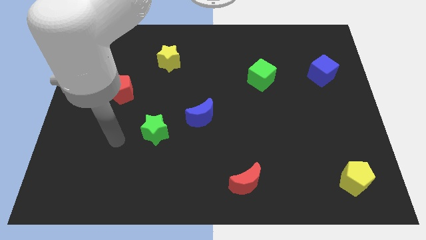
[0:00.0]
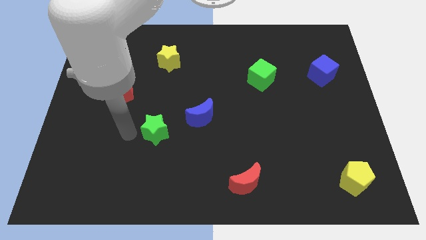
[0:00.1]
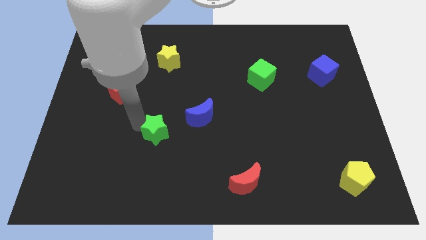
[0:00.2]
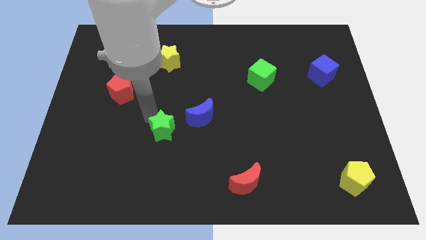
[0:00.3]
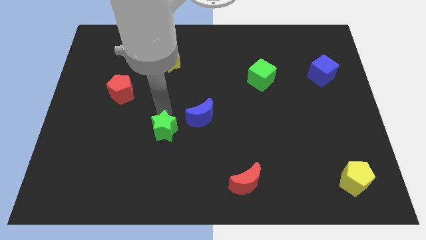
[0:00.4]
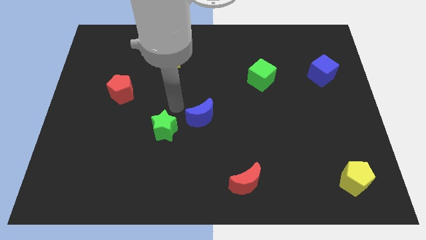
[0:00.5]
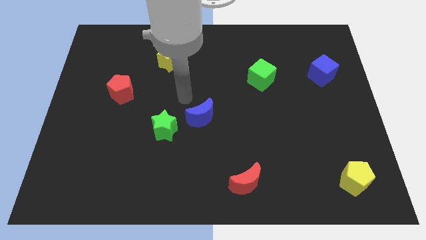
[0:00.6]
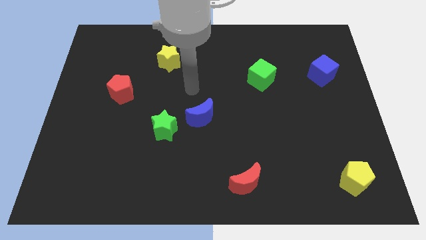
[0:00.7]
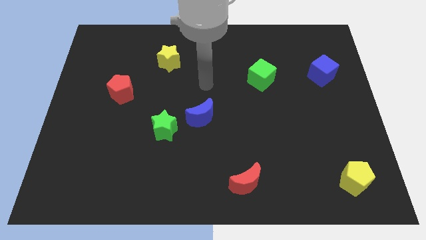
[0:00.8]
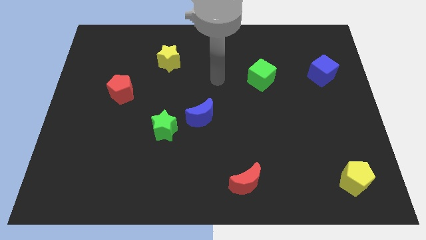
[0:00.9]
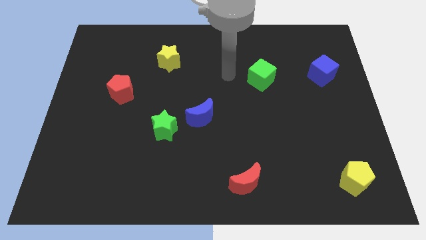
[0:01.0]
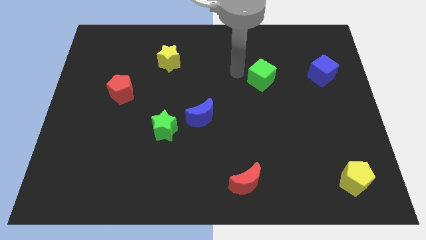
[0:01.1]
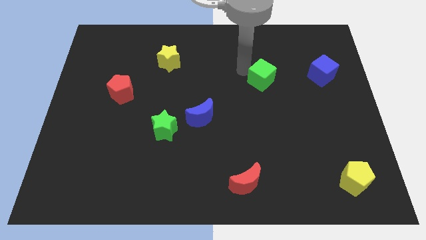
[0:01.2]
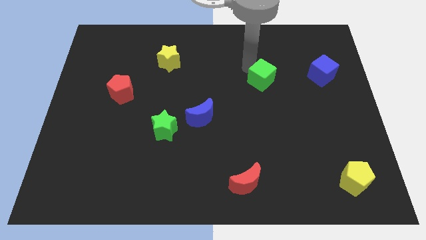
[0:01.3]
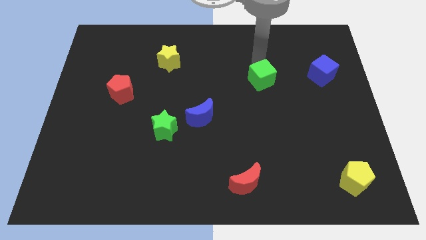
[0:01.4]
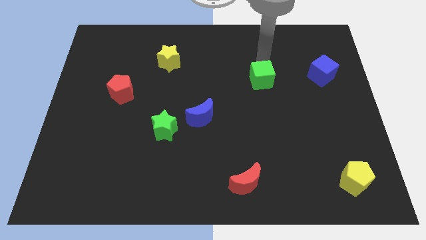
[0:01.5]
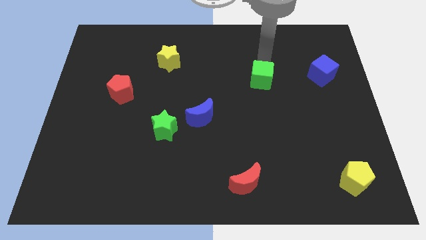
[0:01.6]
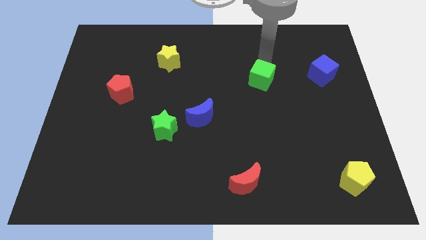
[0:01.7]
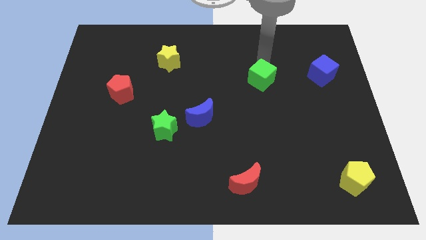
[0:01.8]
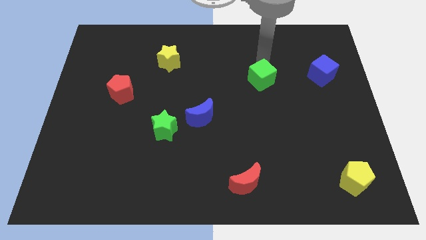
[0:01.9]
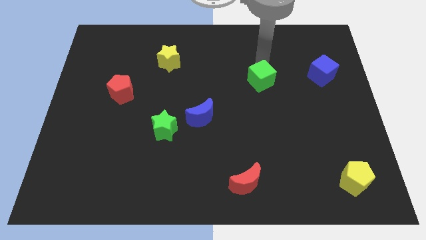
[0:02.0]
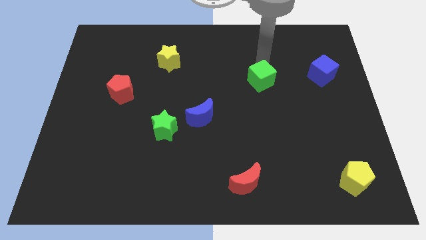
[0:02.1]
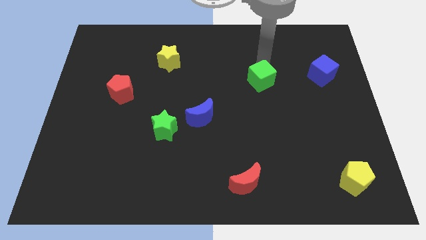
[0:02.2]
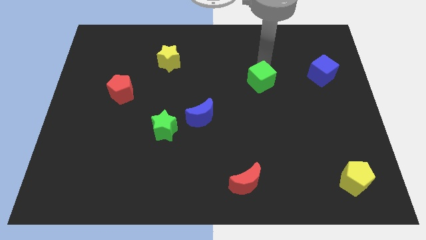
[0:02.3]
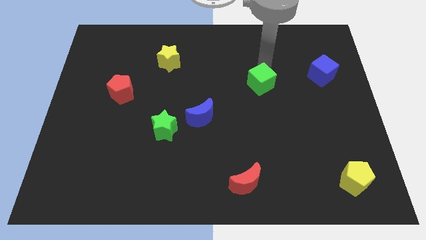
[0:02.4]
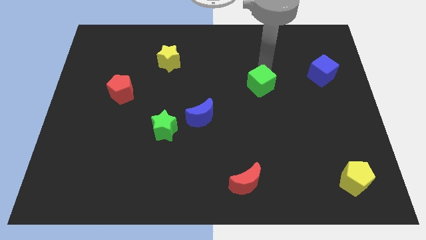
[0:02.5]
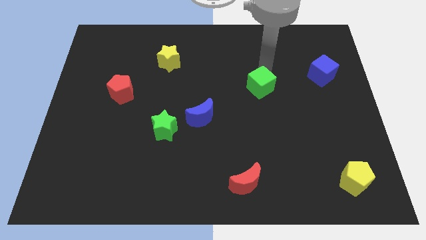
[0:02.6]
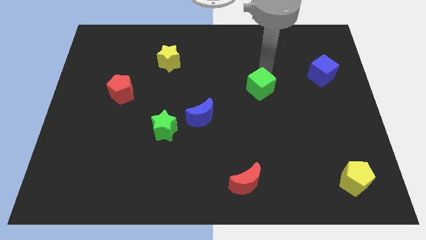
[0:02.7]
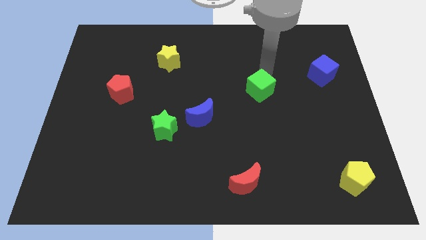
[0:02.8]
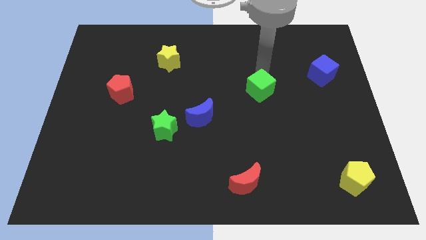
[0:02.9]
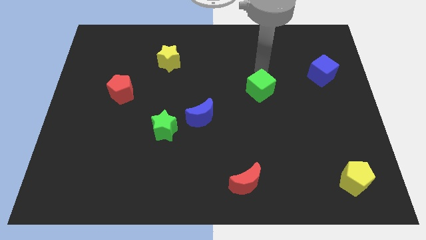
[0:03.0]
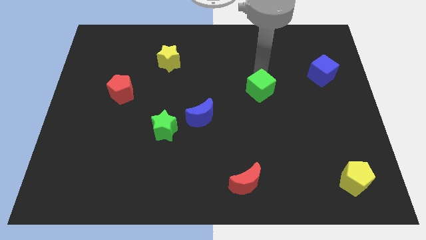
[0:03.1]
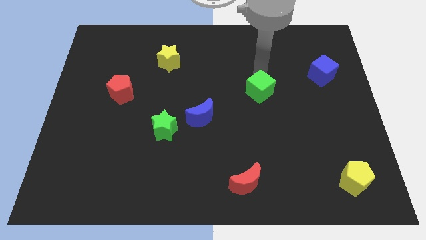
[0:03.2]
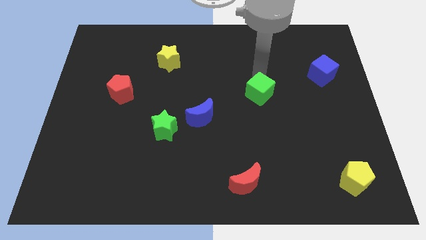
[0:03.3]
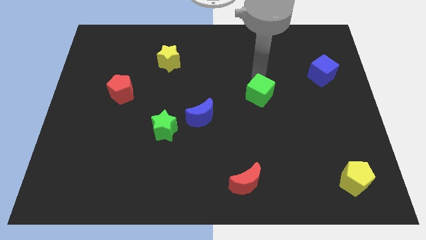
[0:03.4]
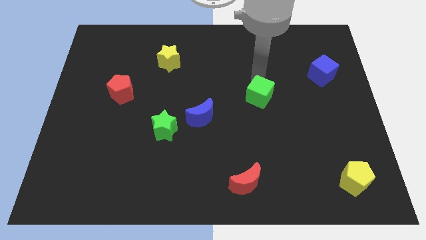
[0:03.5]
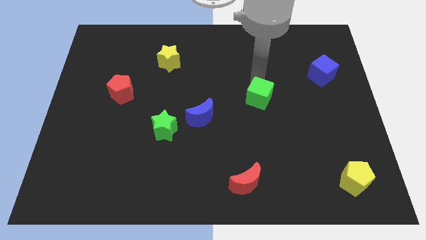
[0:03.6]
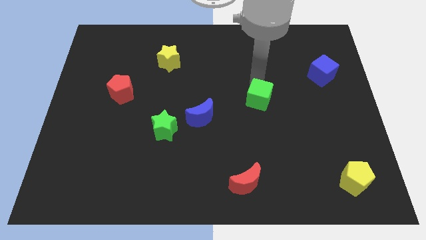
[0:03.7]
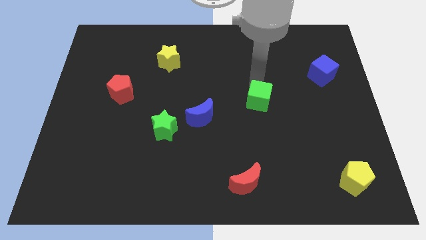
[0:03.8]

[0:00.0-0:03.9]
slightly slide the green cube down

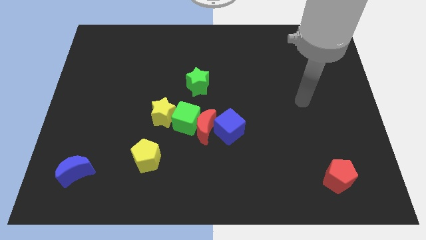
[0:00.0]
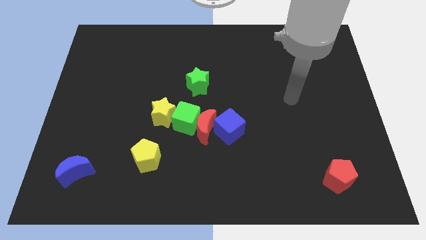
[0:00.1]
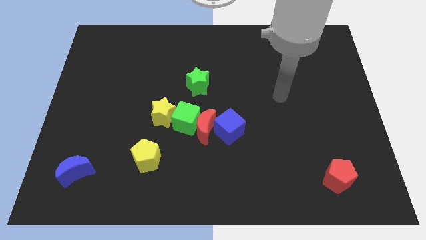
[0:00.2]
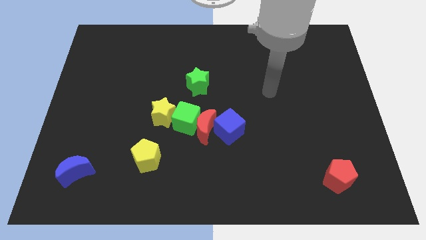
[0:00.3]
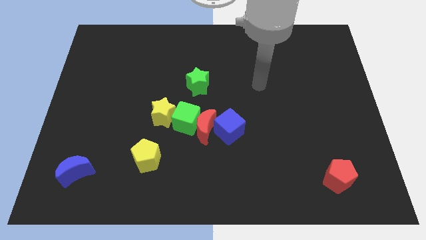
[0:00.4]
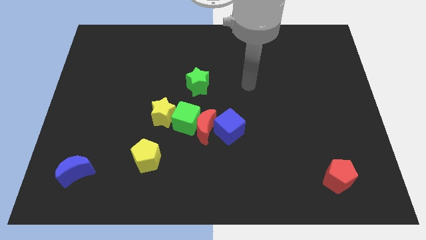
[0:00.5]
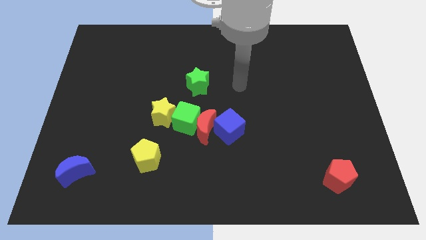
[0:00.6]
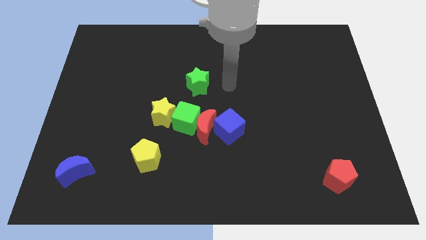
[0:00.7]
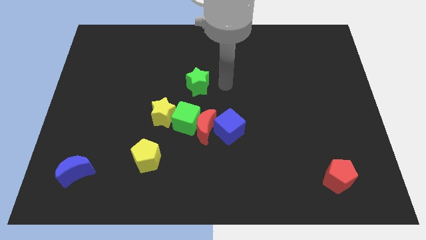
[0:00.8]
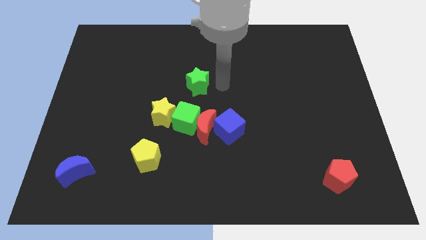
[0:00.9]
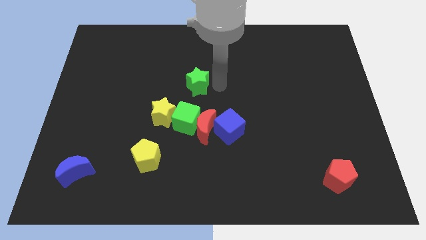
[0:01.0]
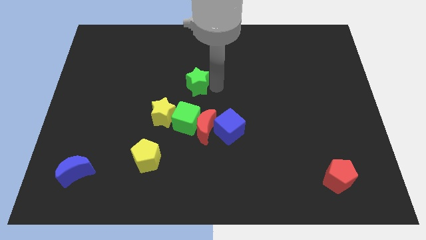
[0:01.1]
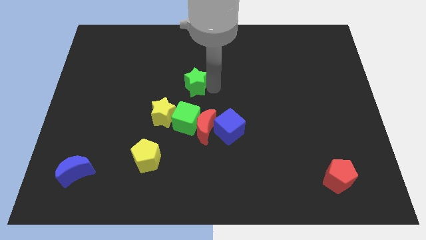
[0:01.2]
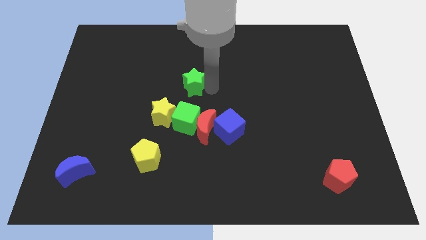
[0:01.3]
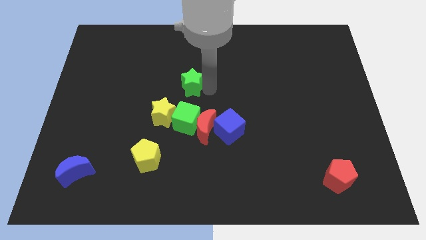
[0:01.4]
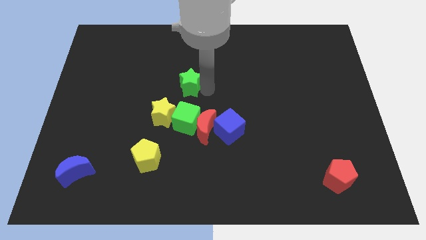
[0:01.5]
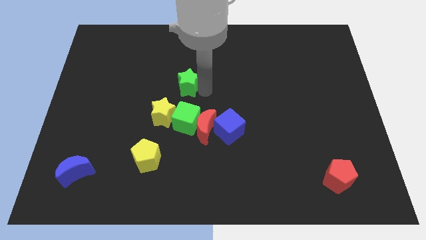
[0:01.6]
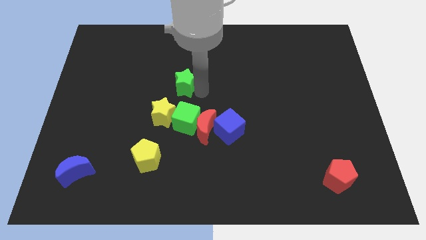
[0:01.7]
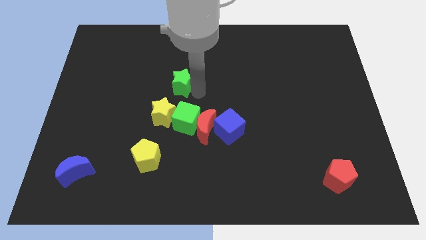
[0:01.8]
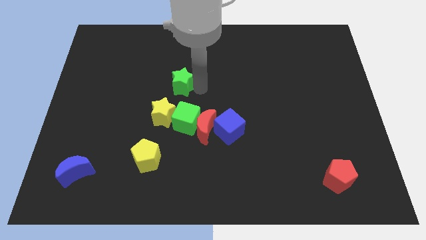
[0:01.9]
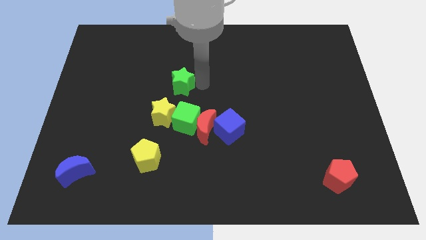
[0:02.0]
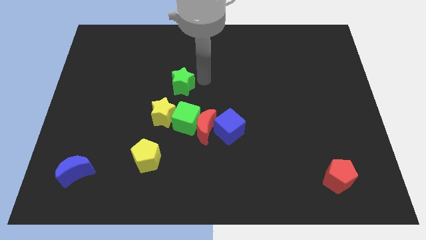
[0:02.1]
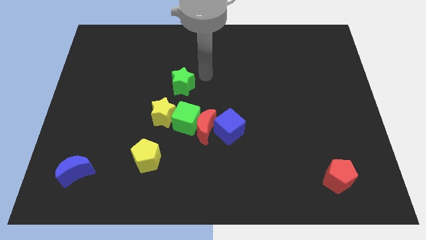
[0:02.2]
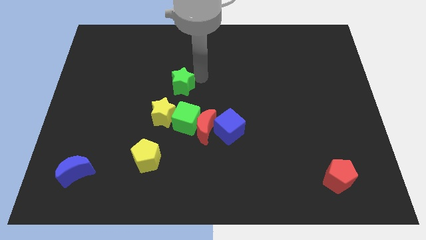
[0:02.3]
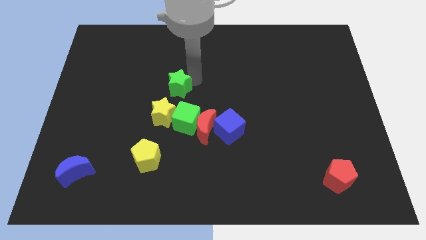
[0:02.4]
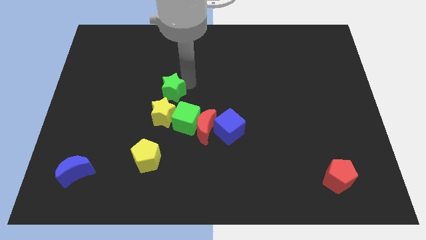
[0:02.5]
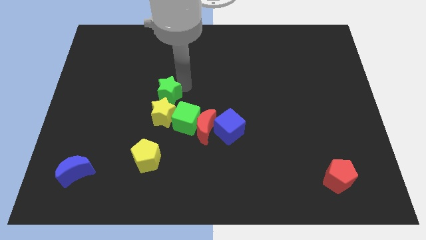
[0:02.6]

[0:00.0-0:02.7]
slide the green star somewhat down and then left

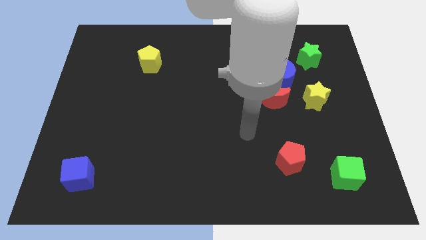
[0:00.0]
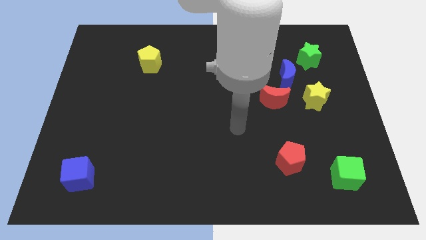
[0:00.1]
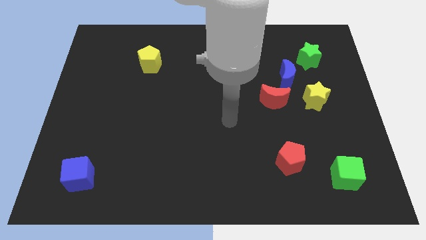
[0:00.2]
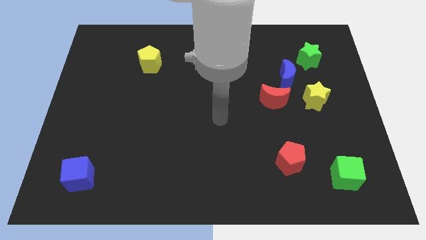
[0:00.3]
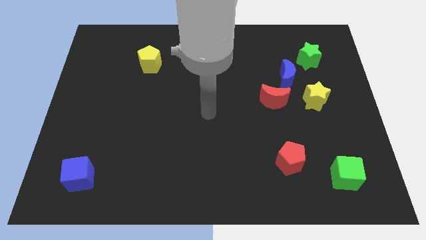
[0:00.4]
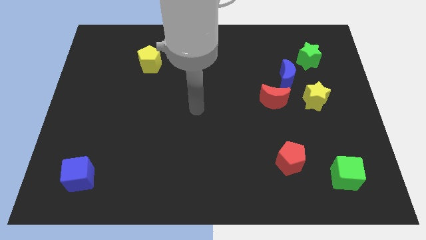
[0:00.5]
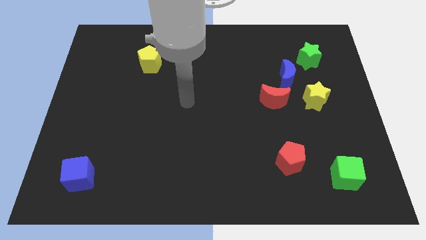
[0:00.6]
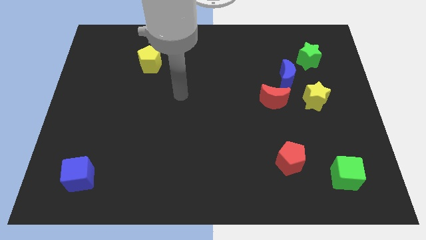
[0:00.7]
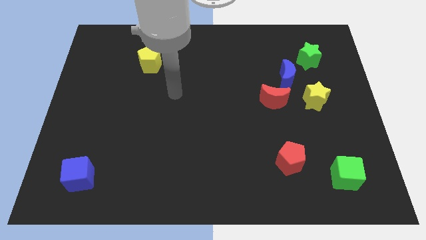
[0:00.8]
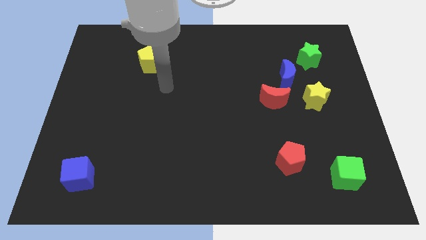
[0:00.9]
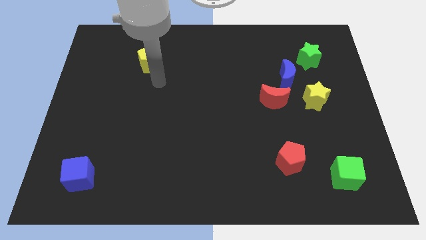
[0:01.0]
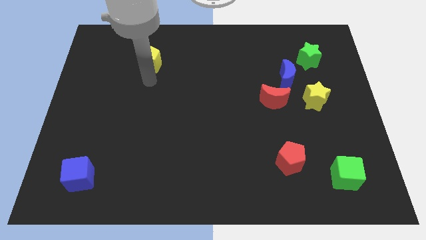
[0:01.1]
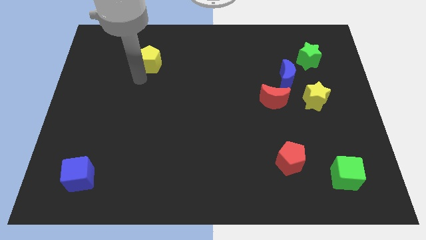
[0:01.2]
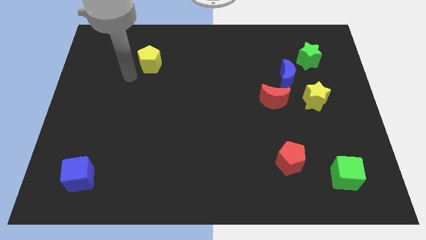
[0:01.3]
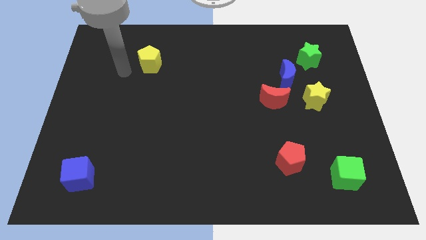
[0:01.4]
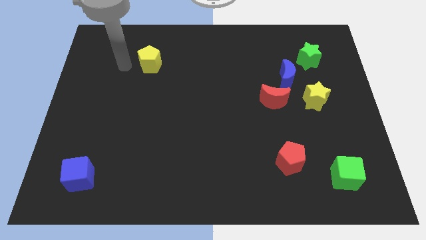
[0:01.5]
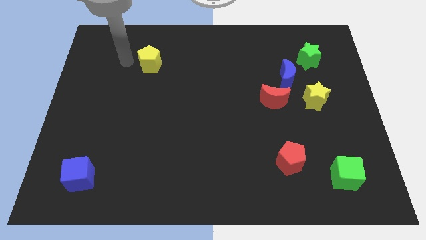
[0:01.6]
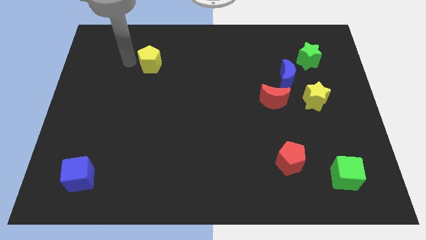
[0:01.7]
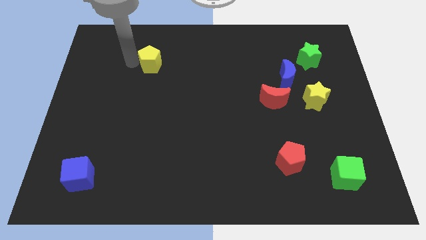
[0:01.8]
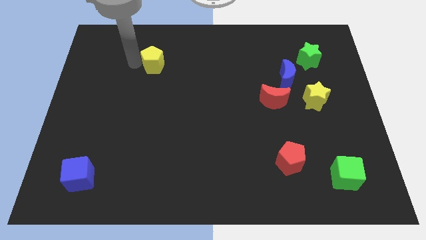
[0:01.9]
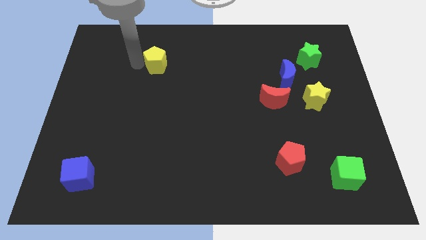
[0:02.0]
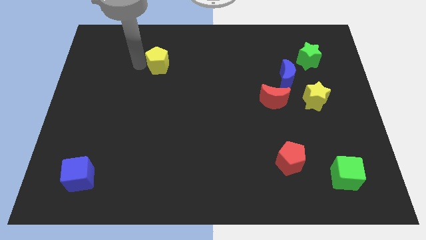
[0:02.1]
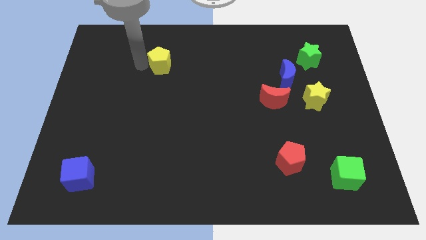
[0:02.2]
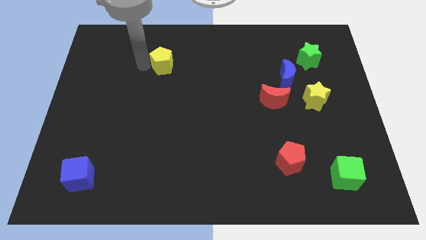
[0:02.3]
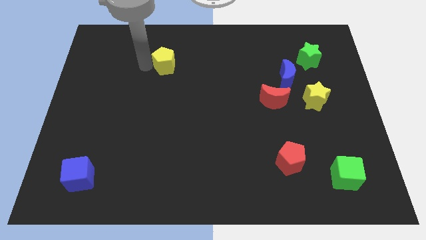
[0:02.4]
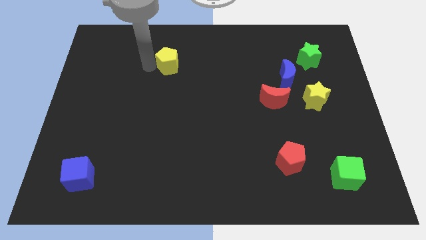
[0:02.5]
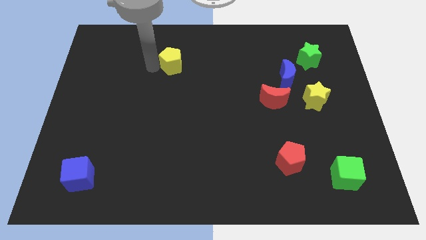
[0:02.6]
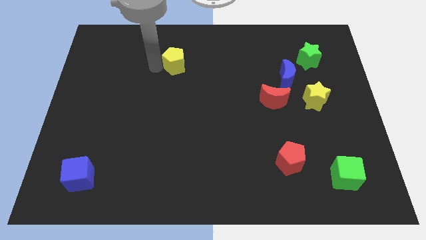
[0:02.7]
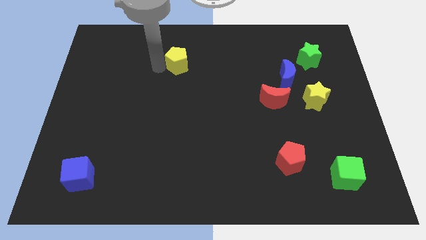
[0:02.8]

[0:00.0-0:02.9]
push the yellow pentagon to the right a little
